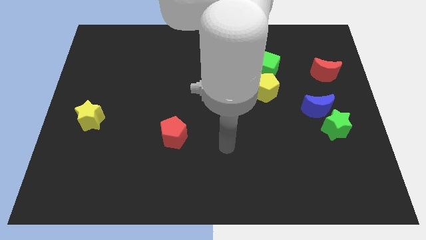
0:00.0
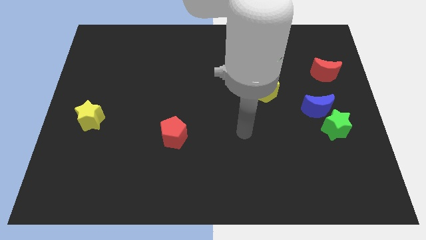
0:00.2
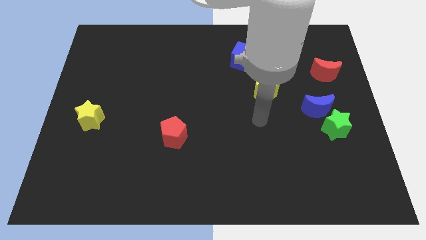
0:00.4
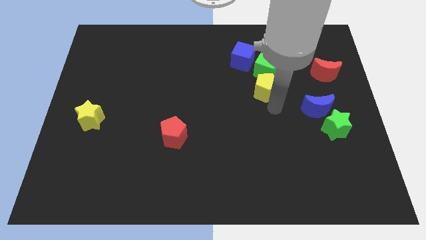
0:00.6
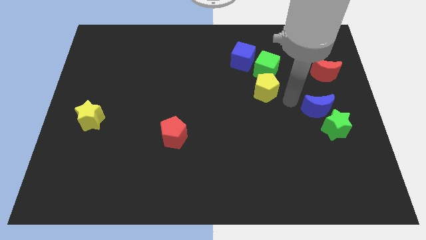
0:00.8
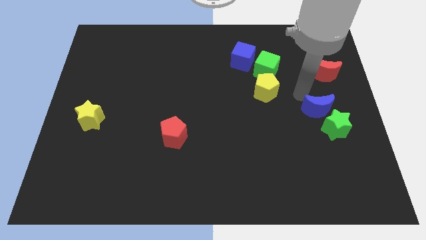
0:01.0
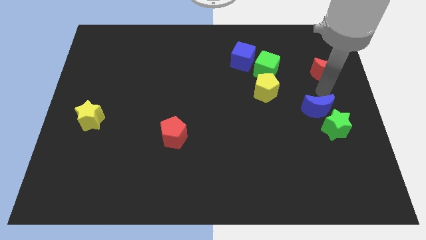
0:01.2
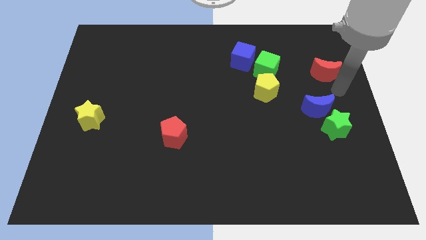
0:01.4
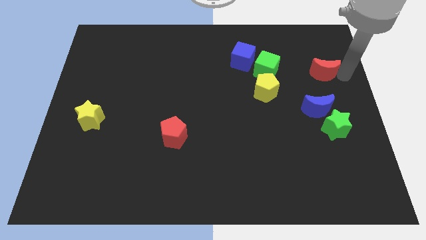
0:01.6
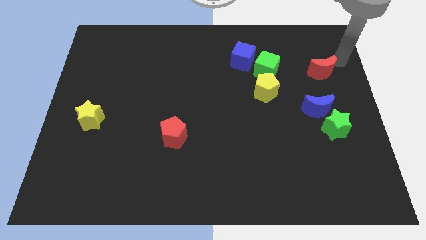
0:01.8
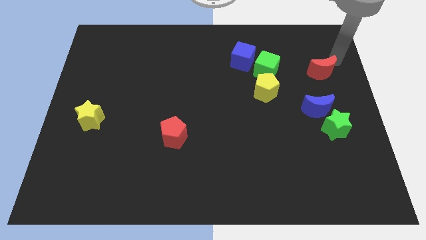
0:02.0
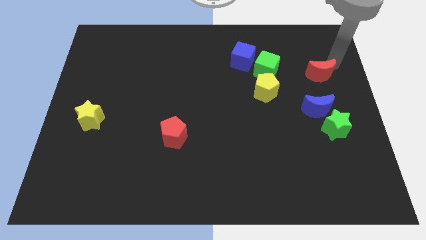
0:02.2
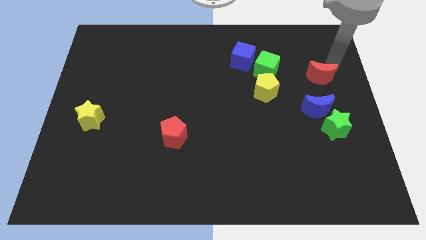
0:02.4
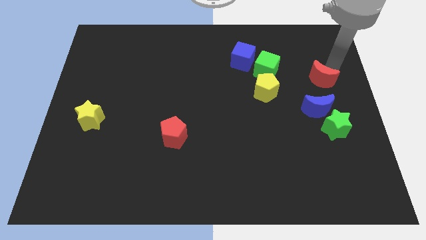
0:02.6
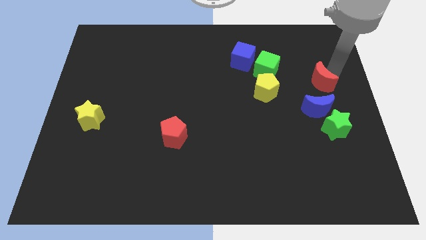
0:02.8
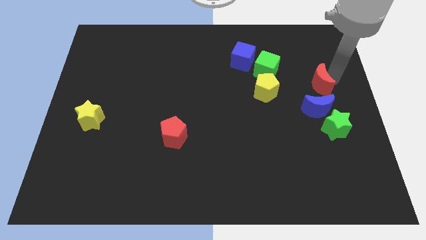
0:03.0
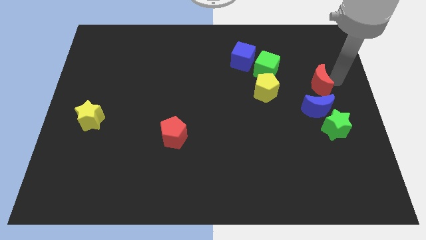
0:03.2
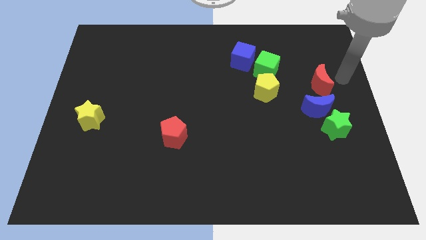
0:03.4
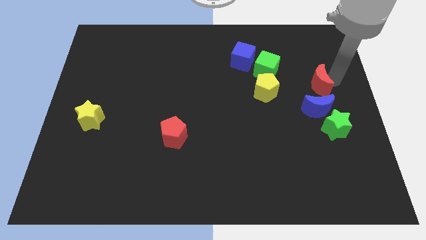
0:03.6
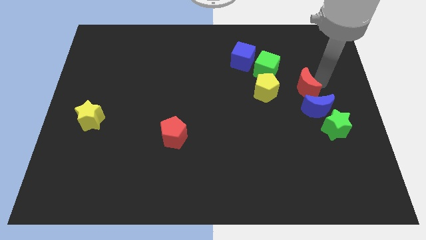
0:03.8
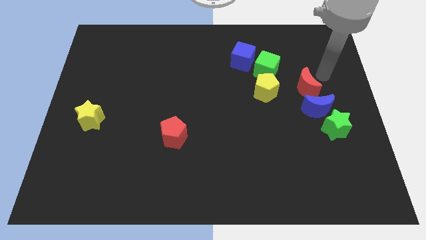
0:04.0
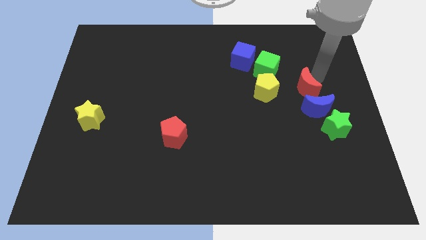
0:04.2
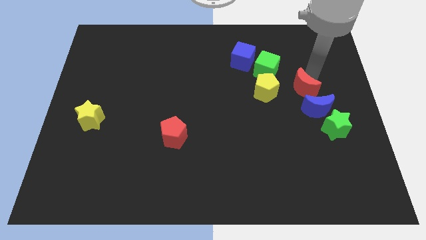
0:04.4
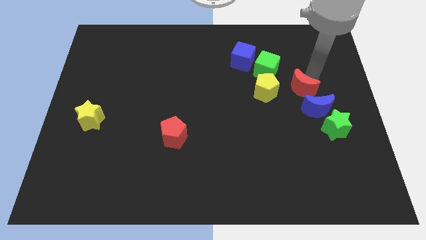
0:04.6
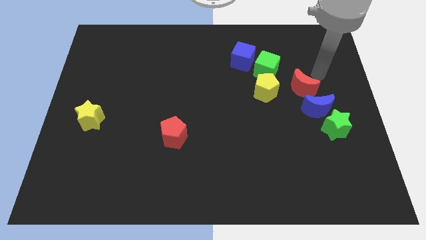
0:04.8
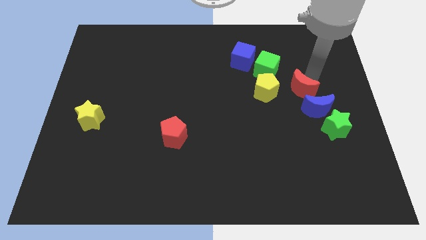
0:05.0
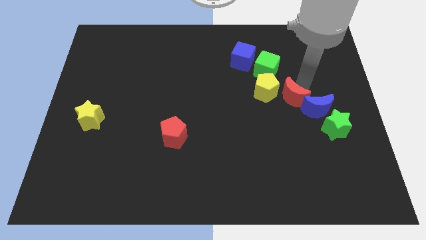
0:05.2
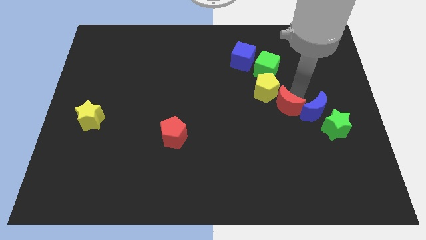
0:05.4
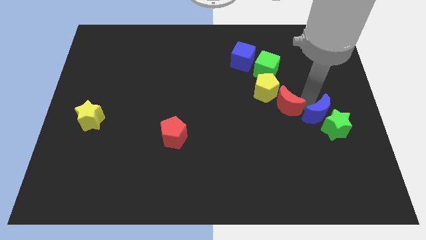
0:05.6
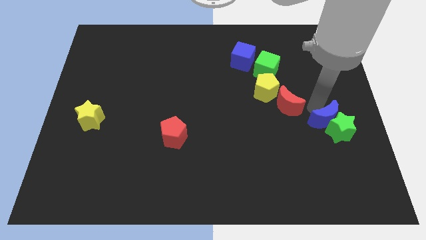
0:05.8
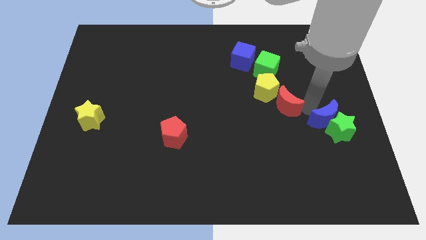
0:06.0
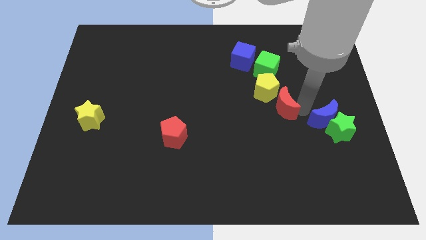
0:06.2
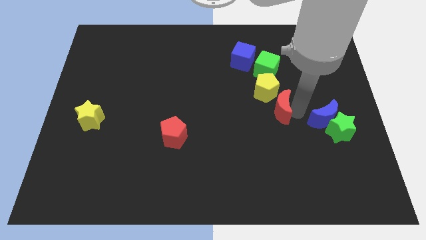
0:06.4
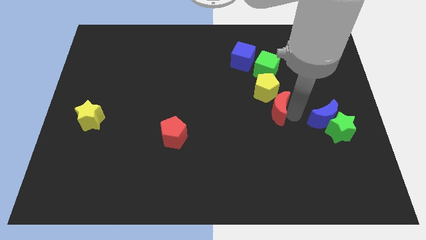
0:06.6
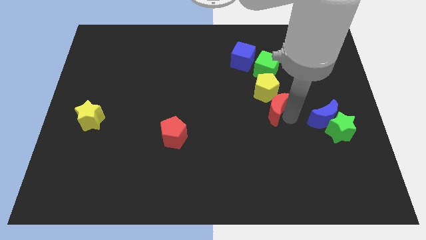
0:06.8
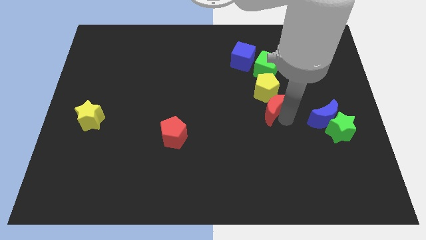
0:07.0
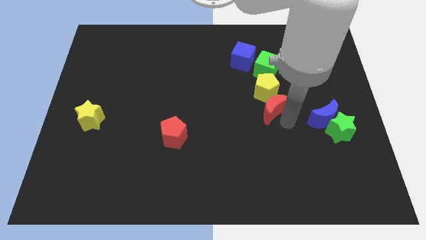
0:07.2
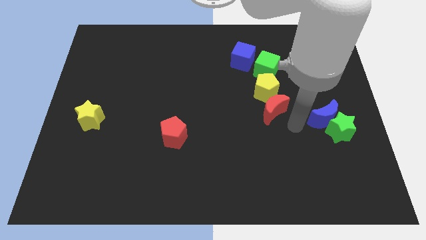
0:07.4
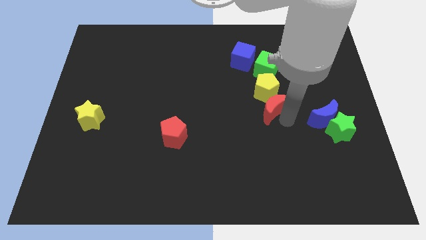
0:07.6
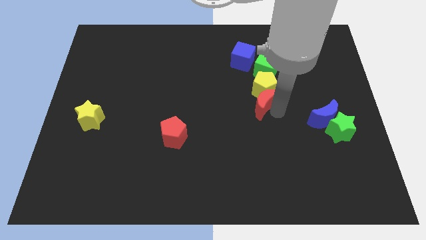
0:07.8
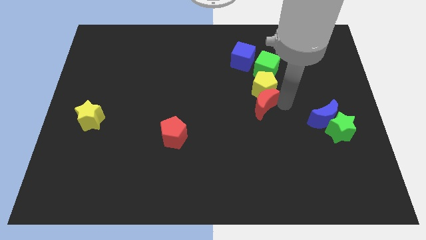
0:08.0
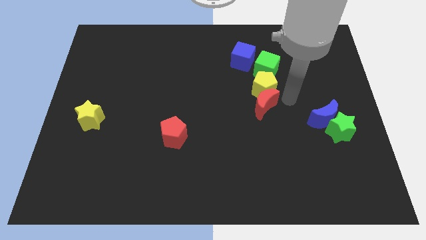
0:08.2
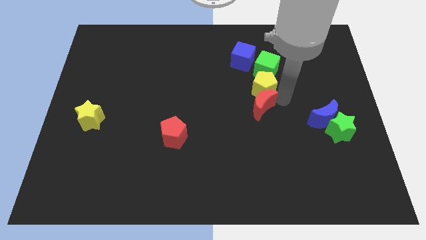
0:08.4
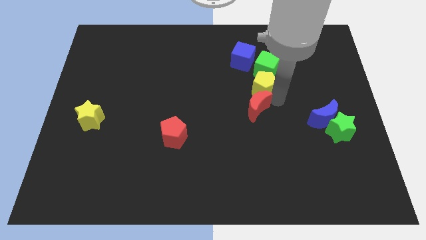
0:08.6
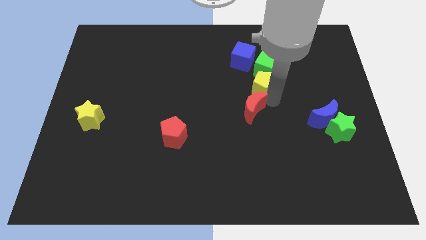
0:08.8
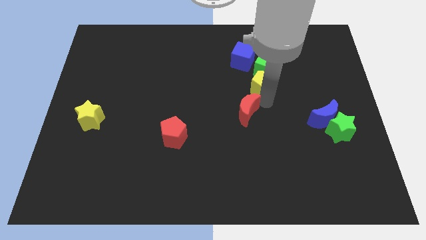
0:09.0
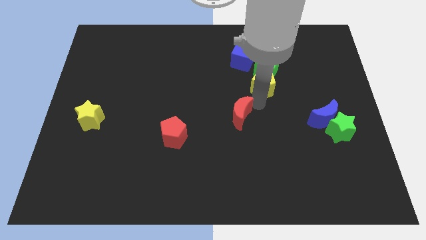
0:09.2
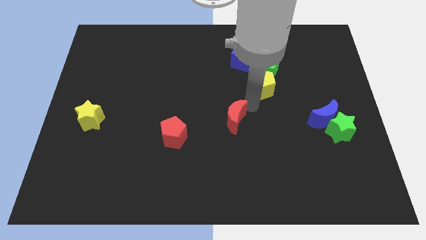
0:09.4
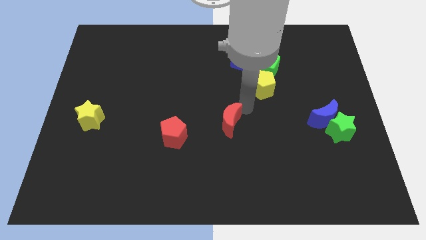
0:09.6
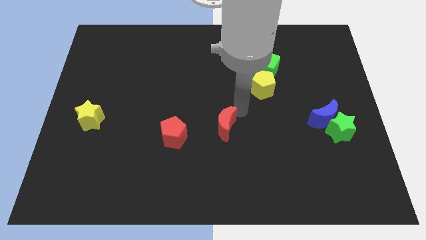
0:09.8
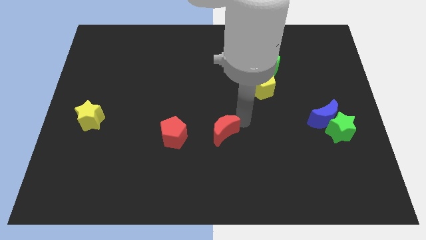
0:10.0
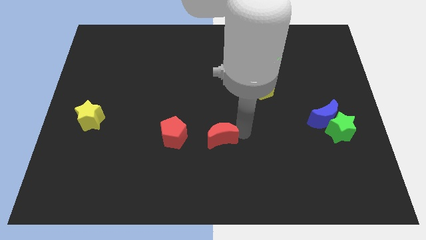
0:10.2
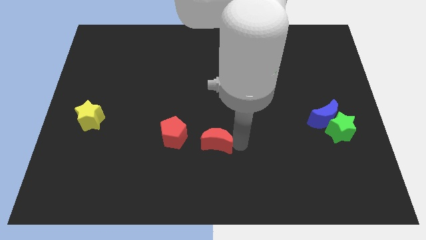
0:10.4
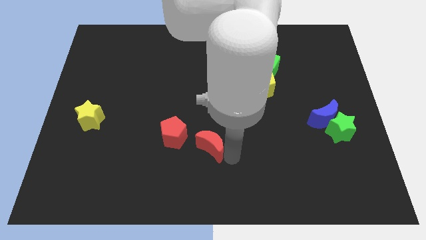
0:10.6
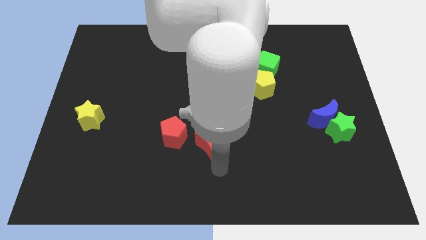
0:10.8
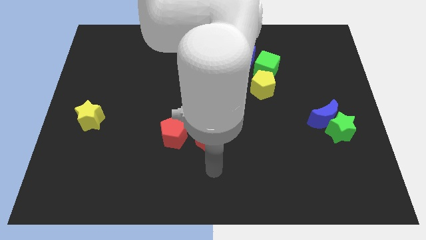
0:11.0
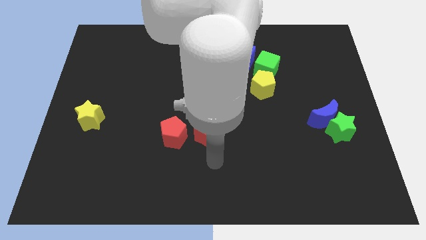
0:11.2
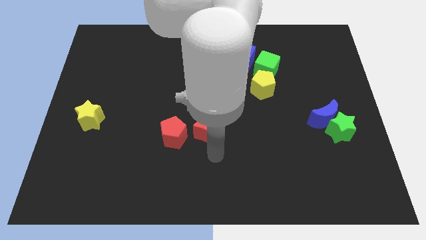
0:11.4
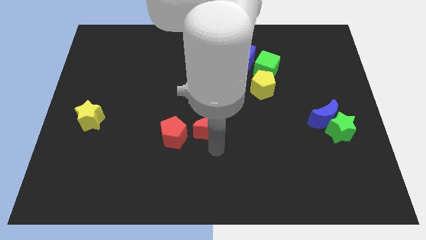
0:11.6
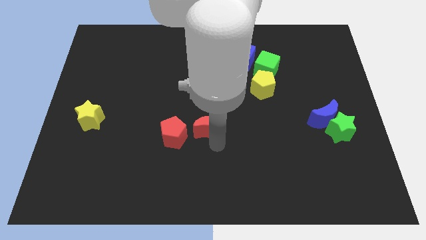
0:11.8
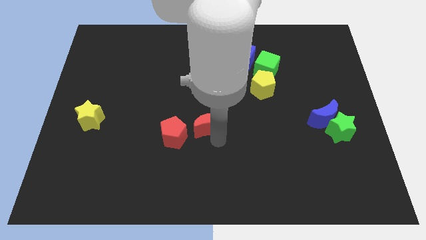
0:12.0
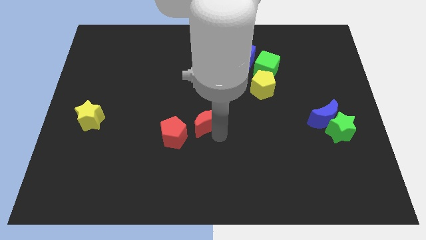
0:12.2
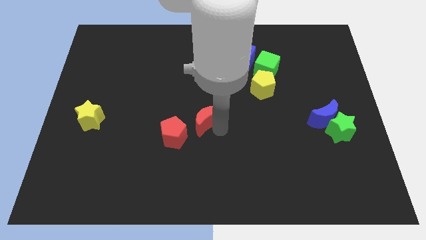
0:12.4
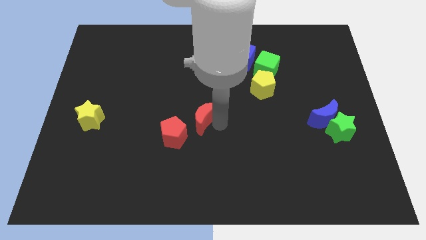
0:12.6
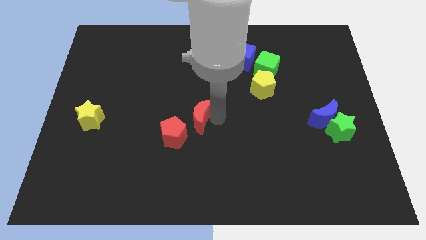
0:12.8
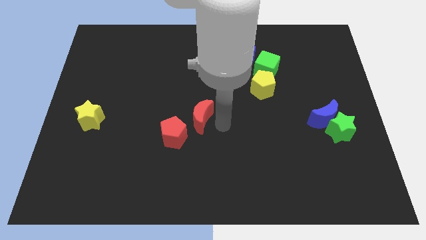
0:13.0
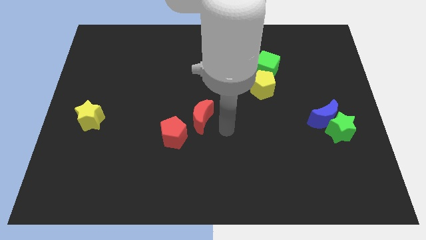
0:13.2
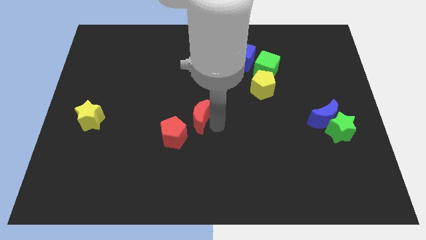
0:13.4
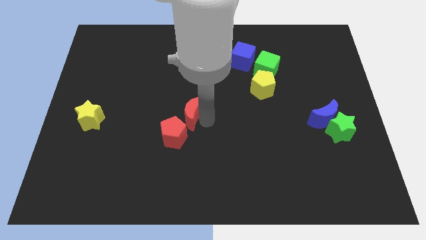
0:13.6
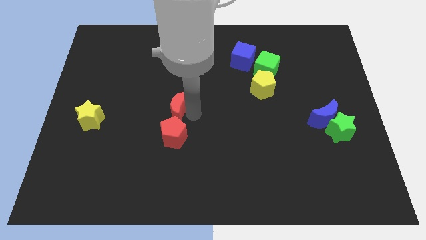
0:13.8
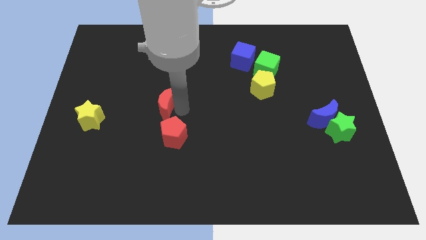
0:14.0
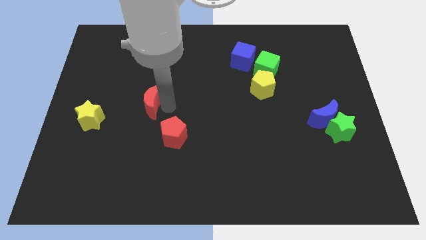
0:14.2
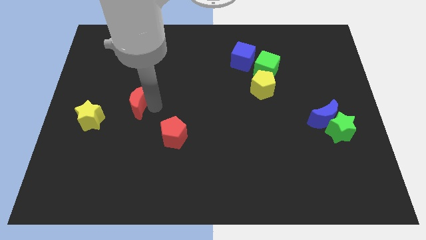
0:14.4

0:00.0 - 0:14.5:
move the red moon diagonally up and to the right of the yellow star
